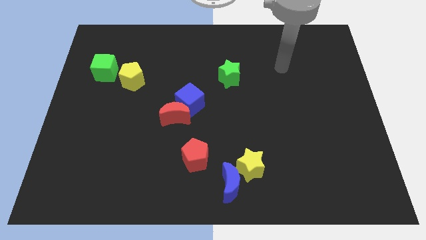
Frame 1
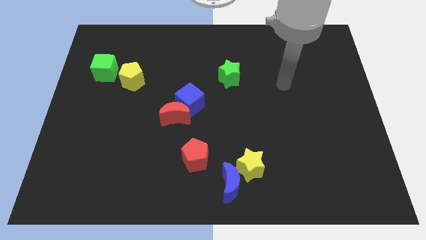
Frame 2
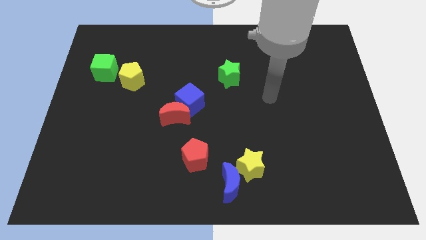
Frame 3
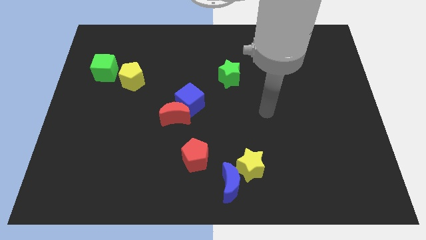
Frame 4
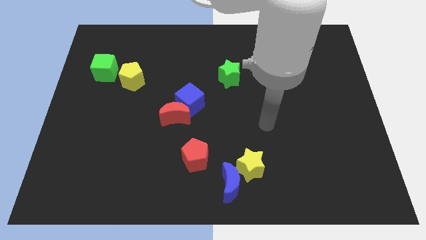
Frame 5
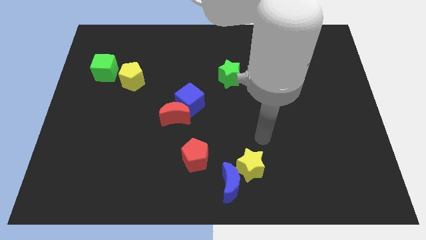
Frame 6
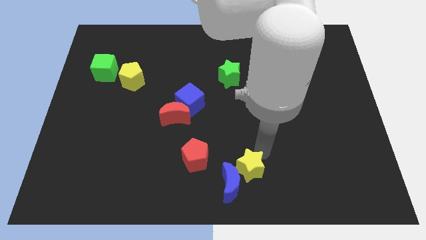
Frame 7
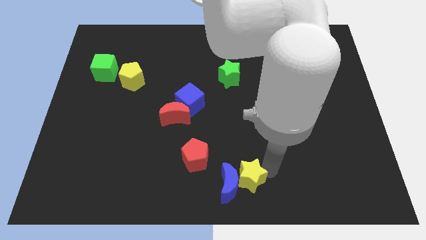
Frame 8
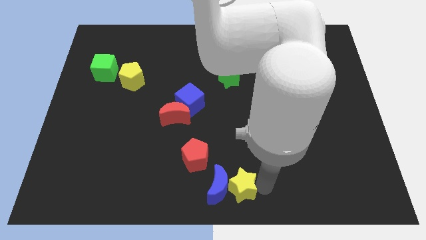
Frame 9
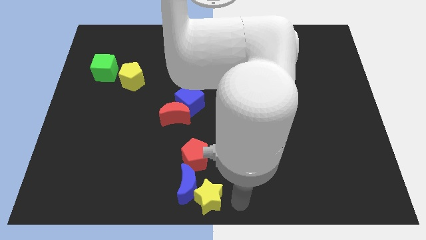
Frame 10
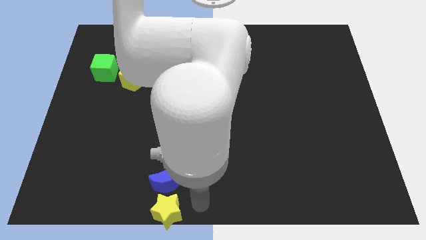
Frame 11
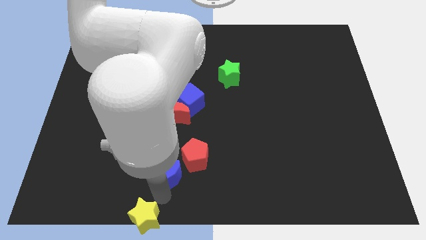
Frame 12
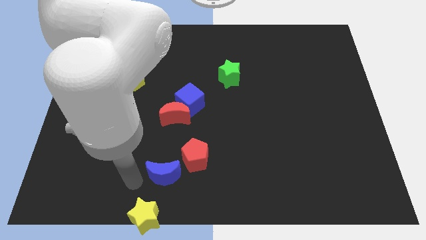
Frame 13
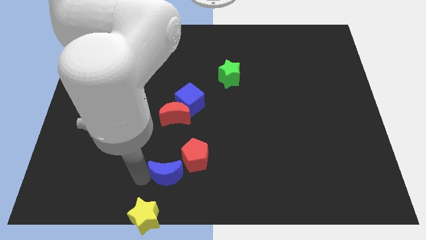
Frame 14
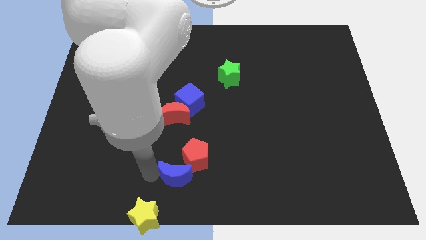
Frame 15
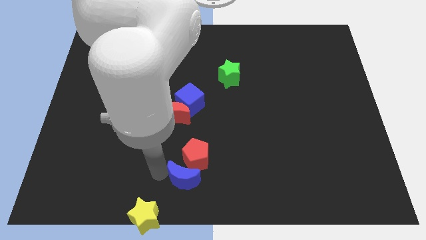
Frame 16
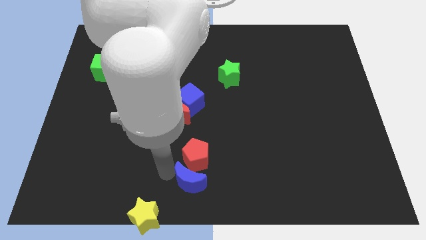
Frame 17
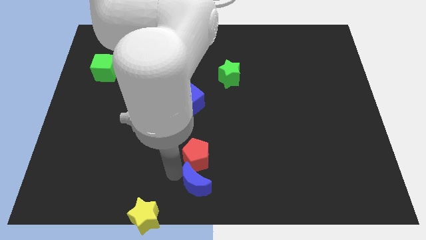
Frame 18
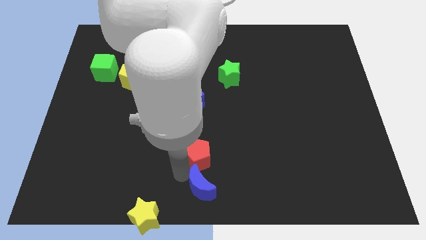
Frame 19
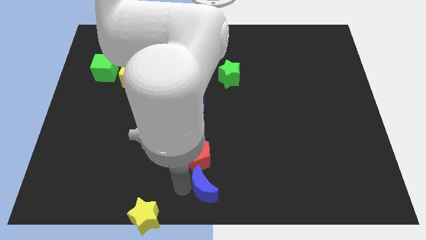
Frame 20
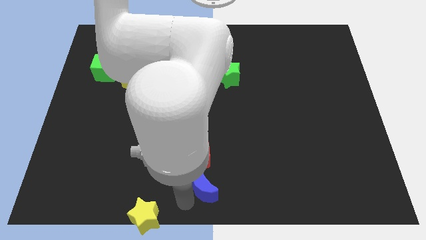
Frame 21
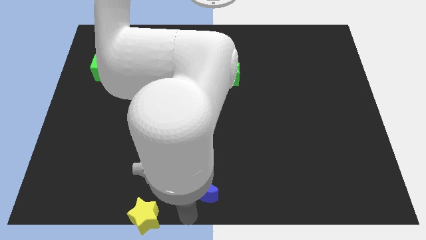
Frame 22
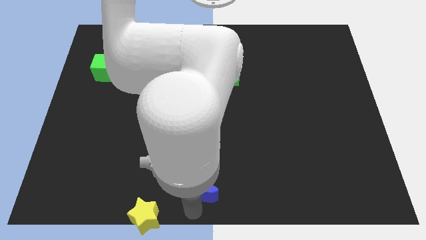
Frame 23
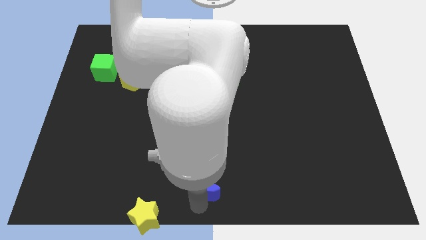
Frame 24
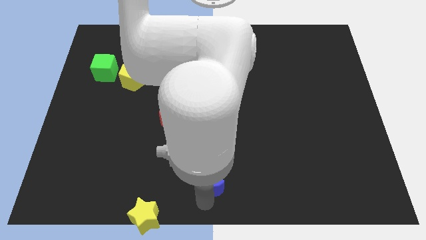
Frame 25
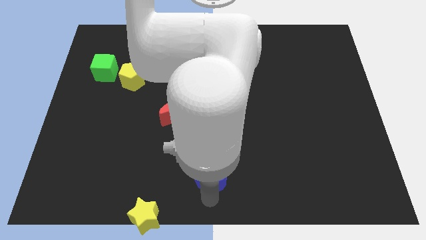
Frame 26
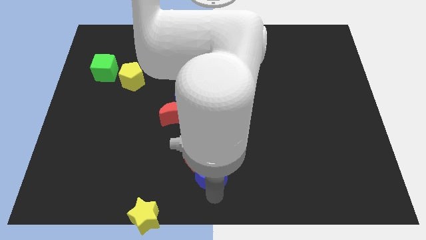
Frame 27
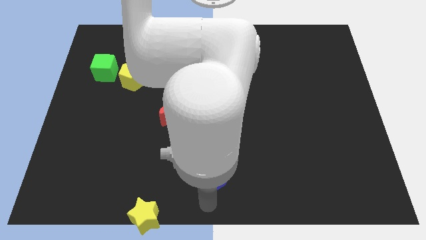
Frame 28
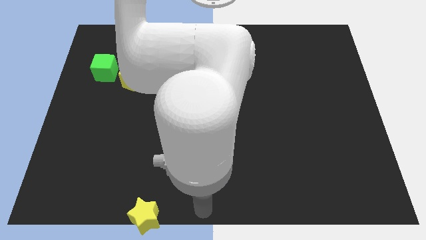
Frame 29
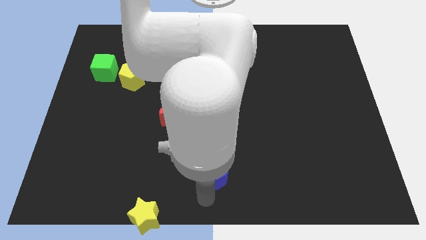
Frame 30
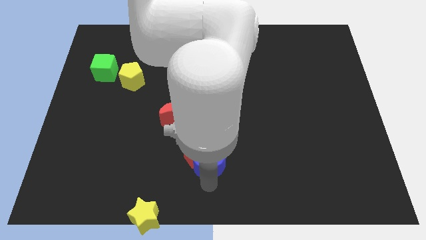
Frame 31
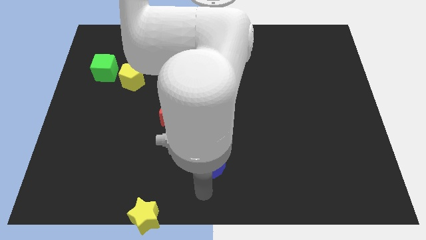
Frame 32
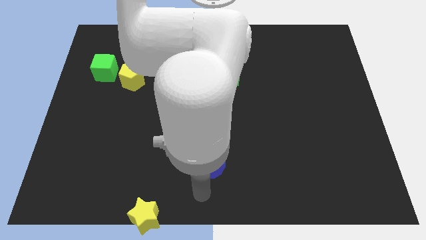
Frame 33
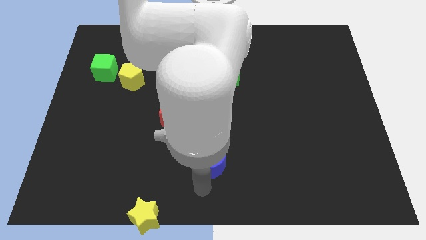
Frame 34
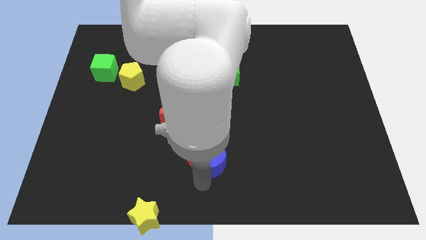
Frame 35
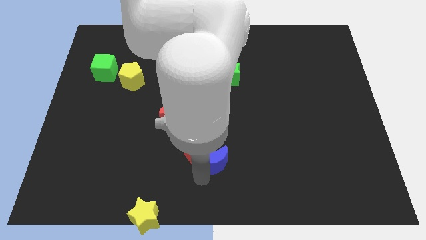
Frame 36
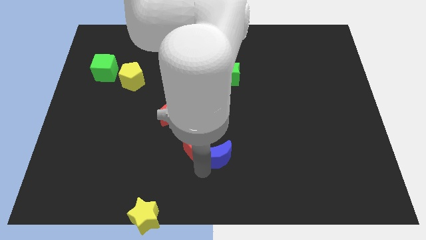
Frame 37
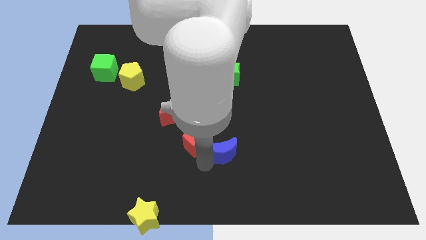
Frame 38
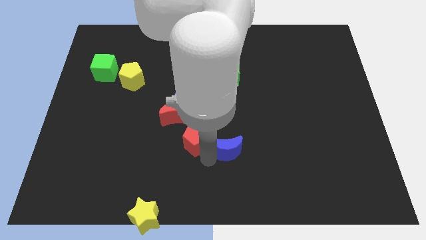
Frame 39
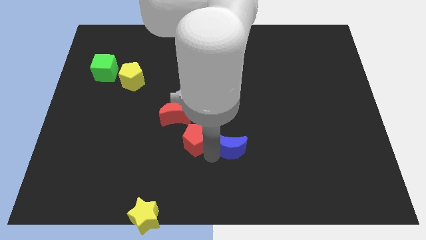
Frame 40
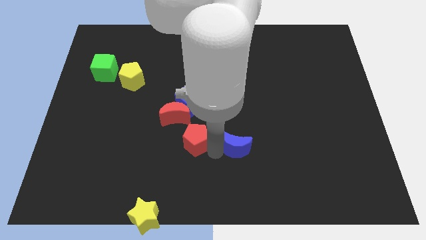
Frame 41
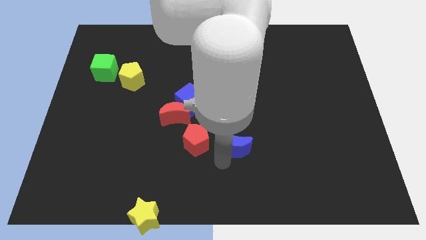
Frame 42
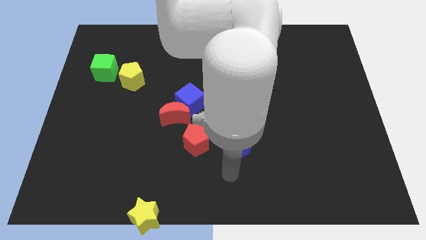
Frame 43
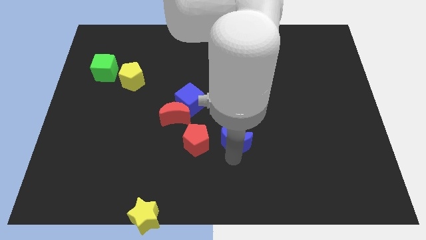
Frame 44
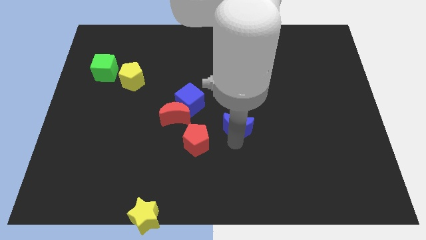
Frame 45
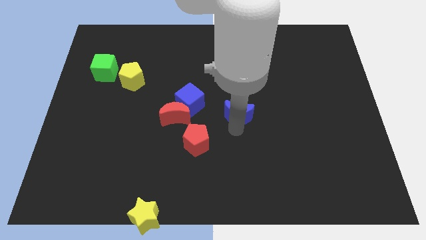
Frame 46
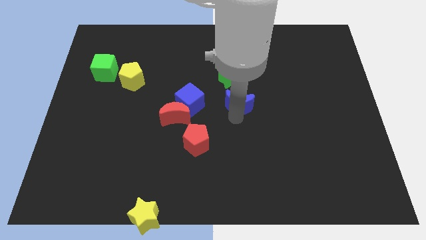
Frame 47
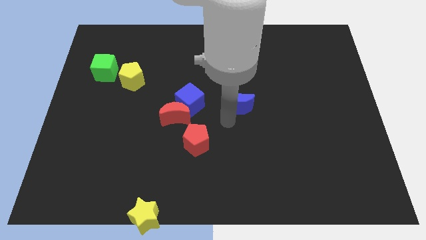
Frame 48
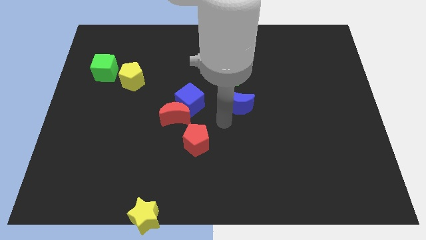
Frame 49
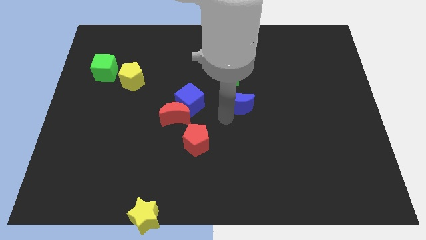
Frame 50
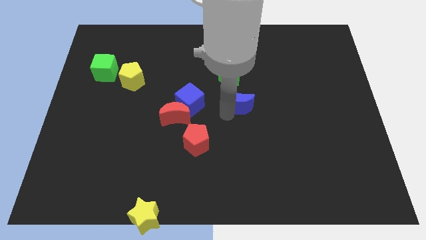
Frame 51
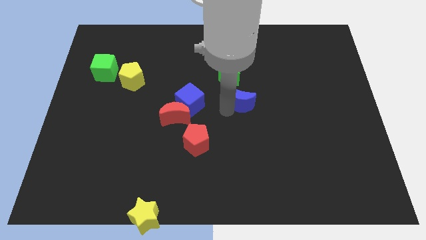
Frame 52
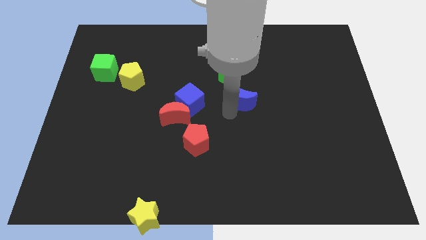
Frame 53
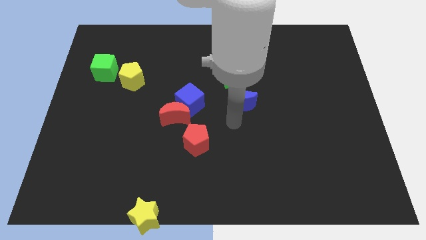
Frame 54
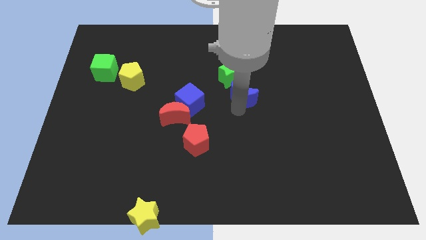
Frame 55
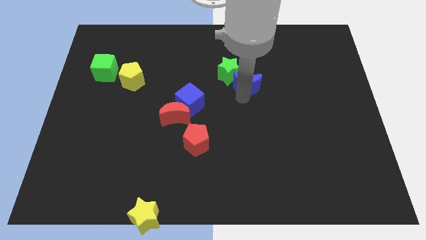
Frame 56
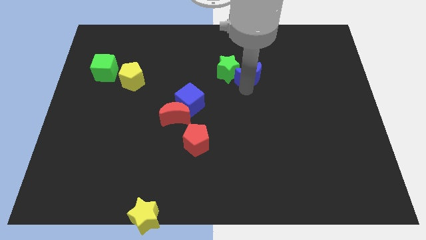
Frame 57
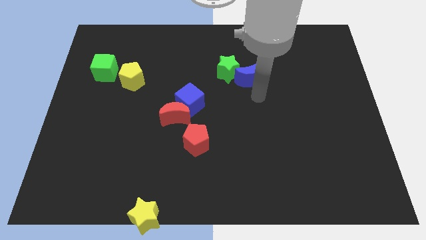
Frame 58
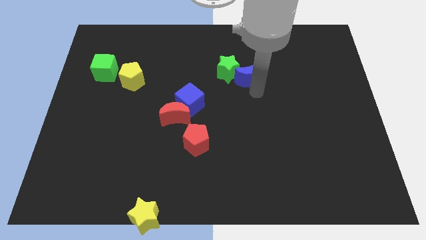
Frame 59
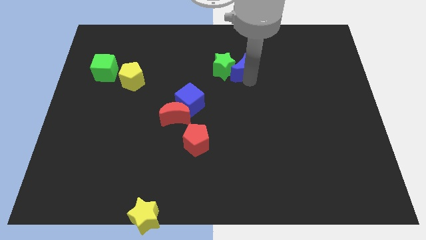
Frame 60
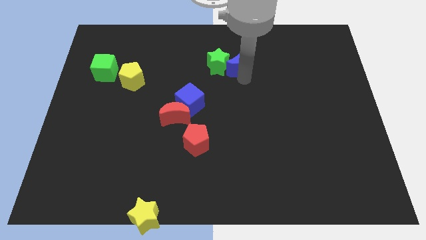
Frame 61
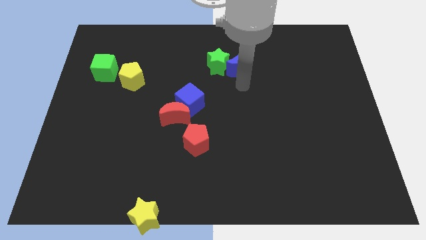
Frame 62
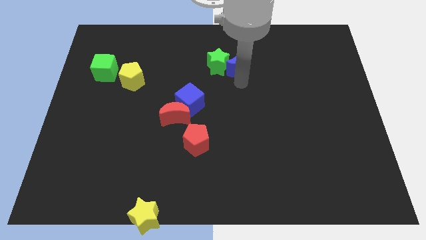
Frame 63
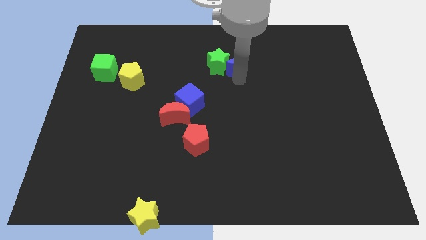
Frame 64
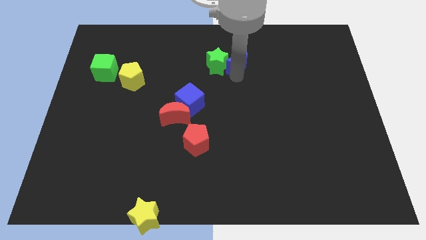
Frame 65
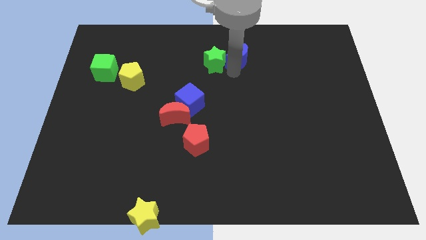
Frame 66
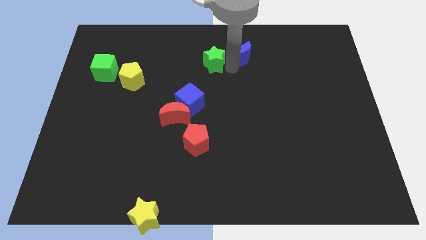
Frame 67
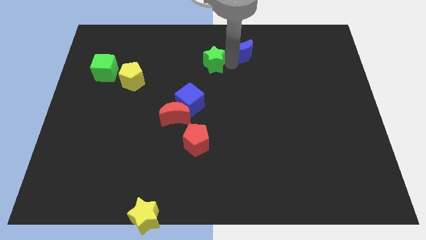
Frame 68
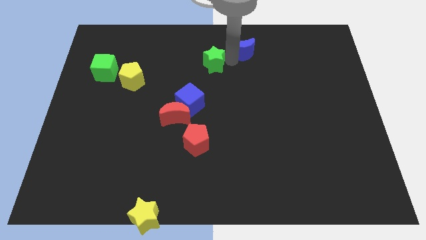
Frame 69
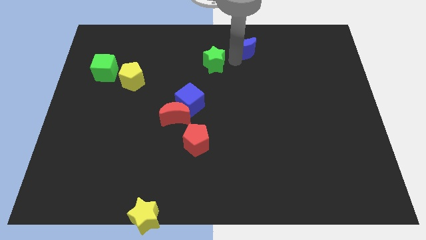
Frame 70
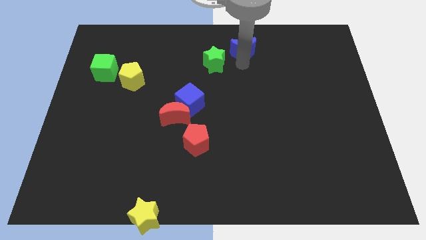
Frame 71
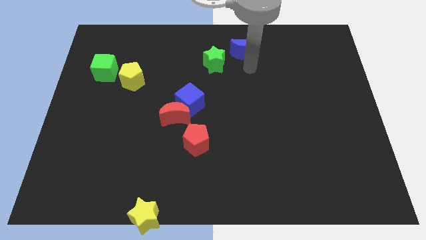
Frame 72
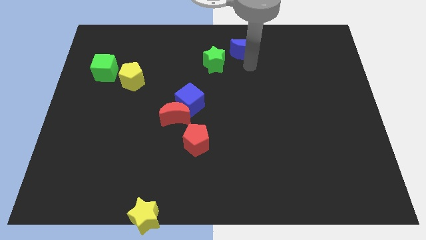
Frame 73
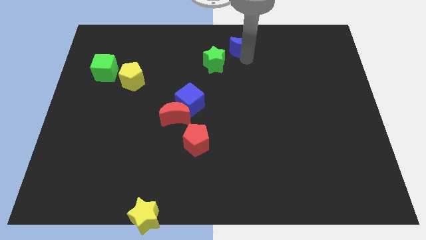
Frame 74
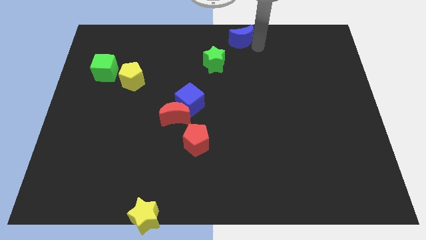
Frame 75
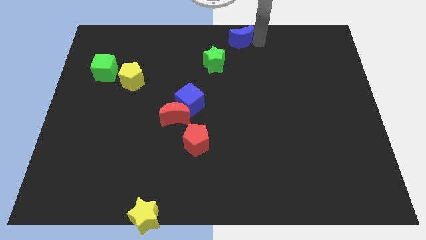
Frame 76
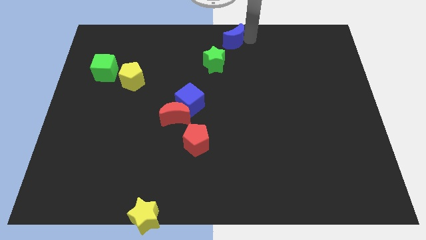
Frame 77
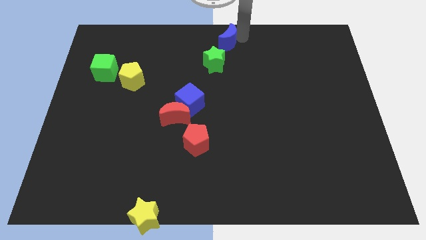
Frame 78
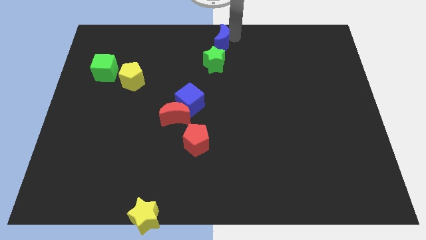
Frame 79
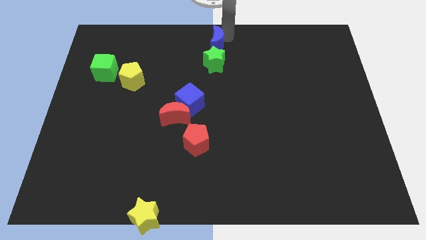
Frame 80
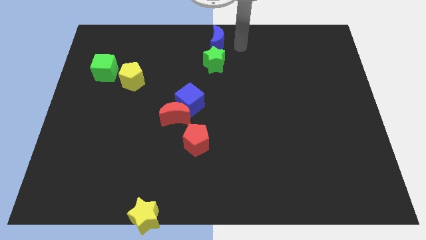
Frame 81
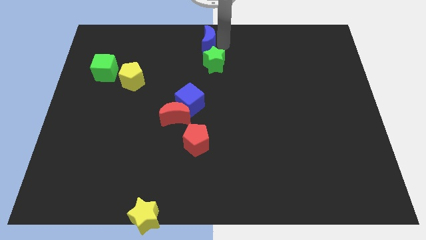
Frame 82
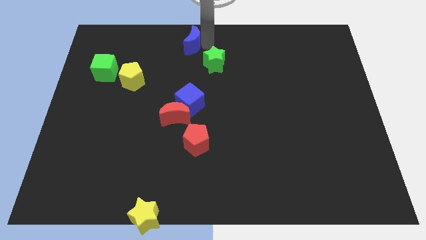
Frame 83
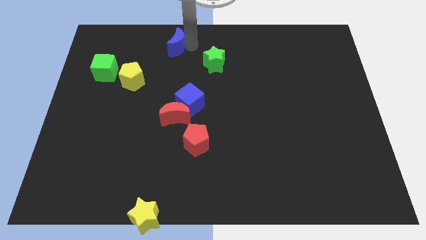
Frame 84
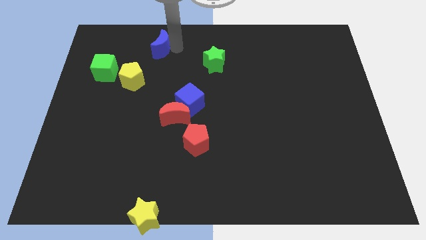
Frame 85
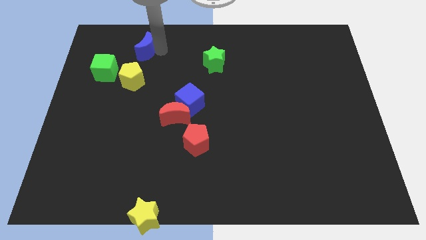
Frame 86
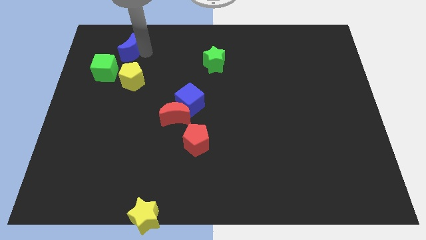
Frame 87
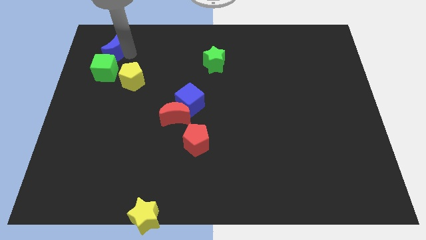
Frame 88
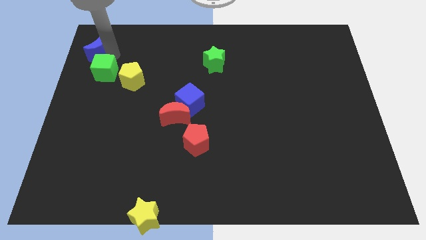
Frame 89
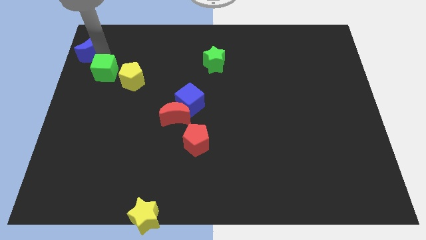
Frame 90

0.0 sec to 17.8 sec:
slide the blue moon to the upper left corner
